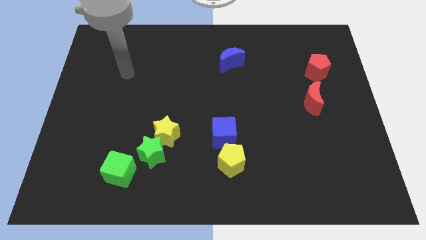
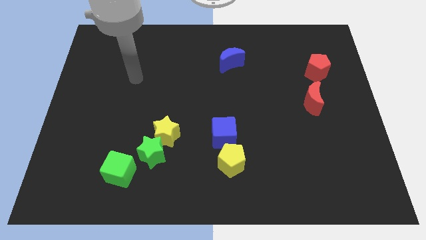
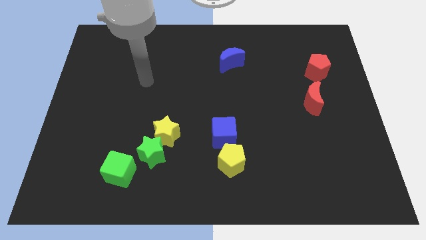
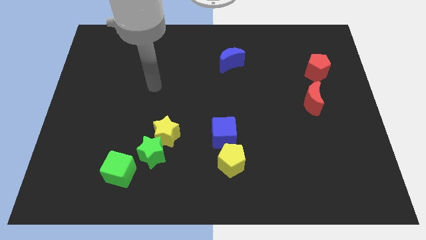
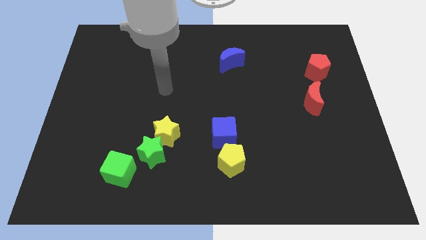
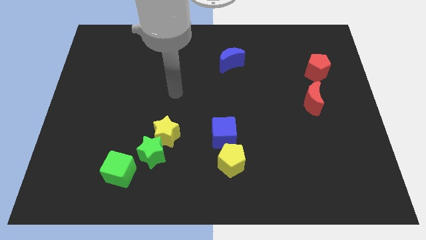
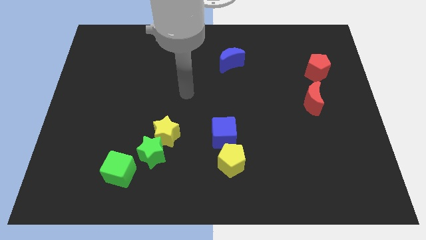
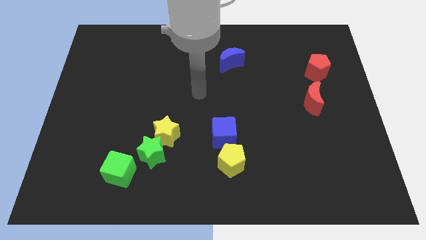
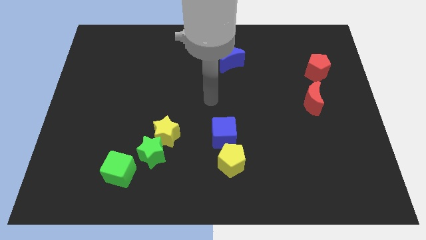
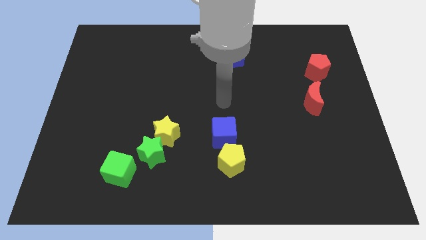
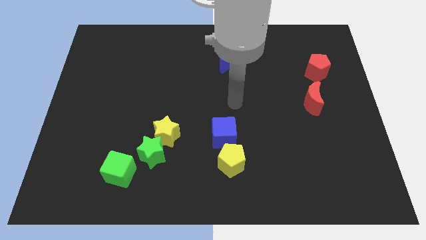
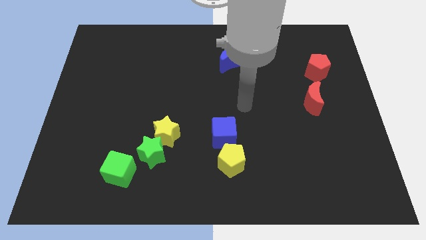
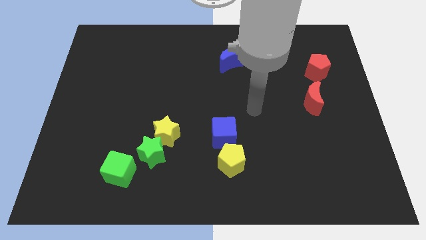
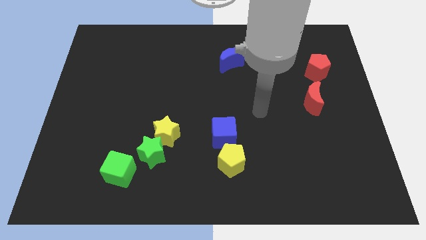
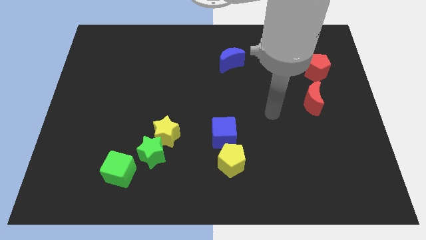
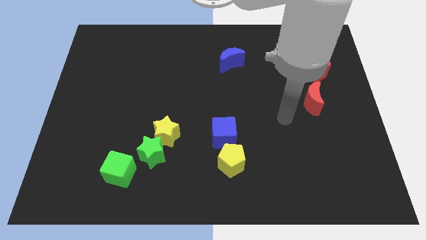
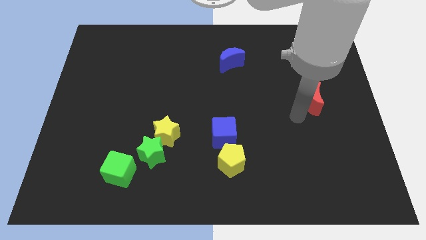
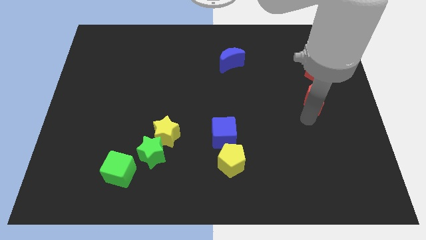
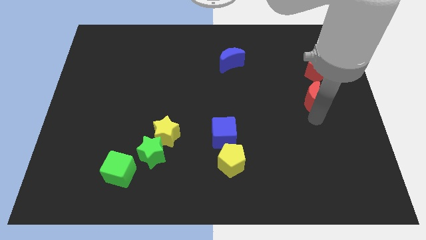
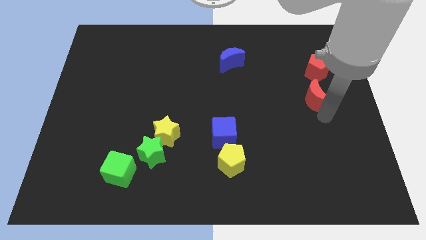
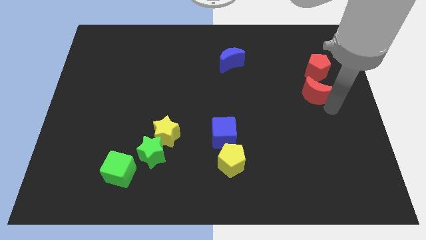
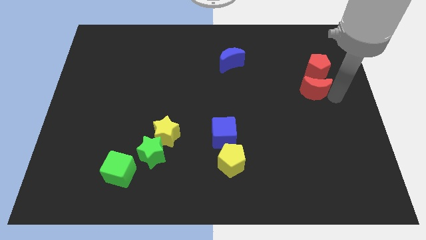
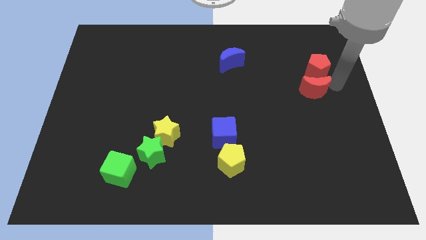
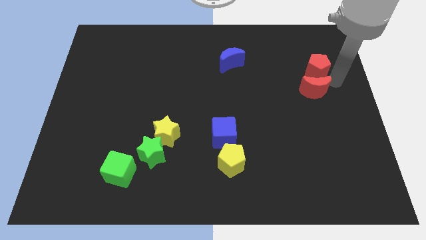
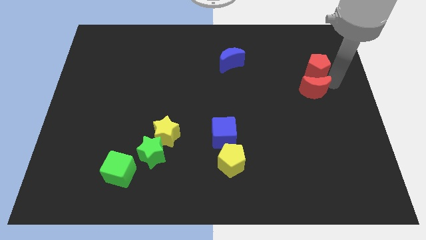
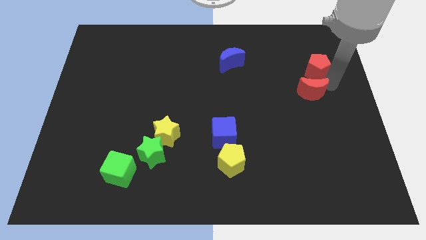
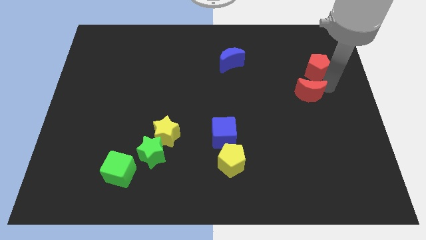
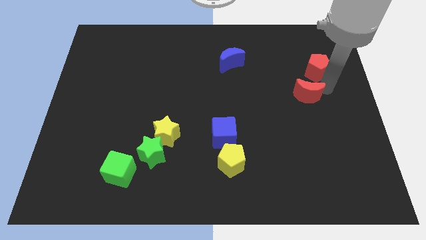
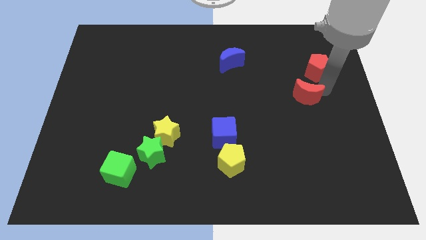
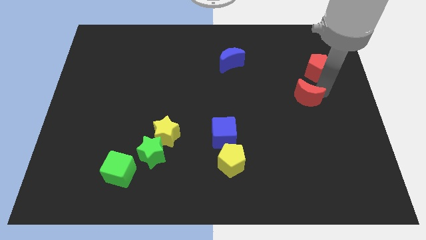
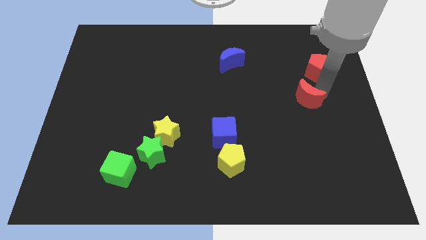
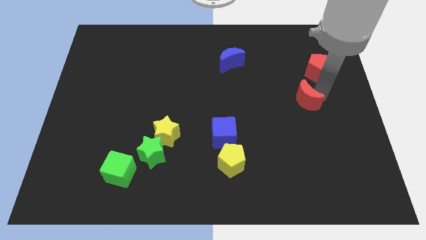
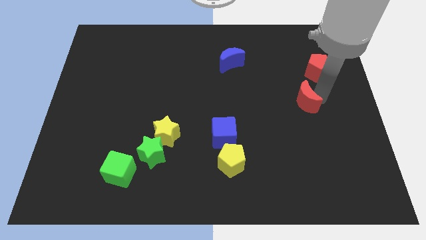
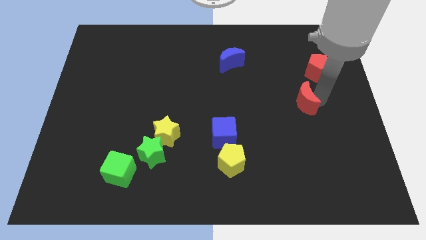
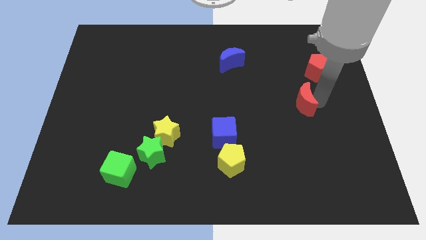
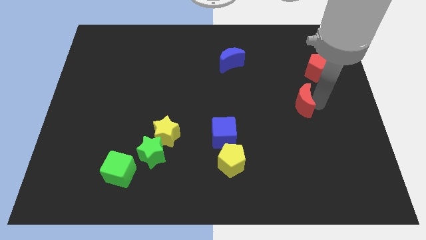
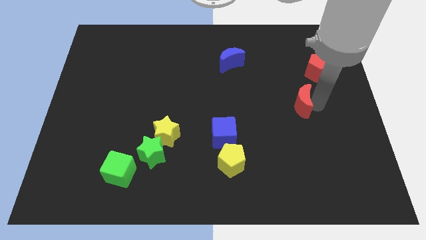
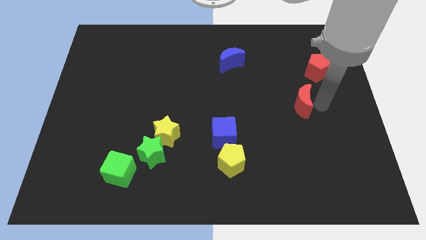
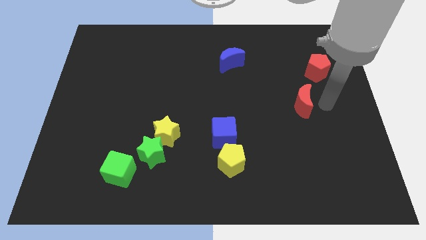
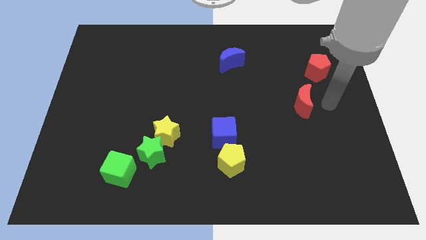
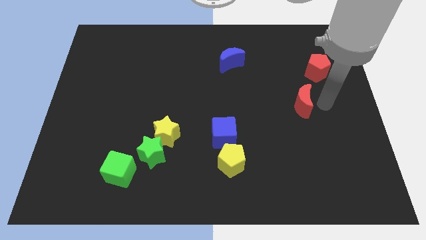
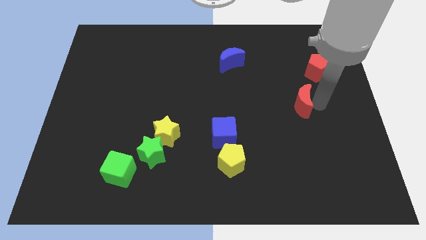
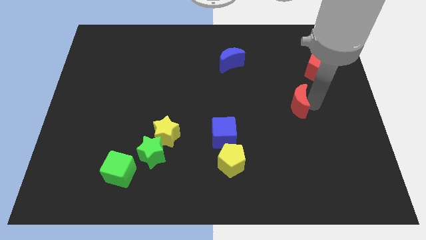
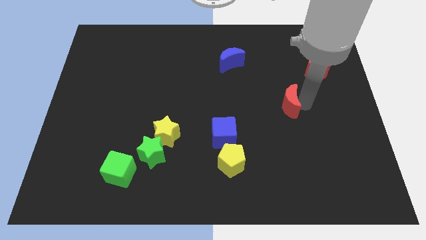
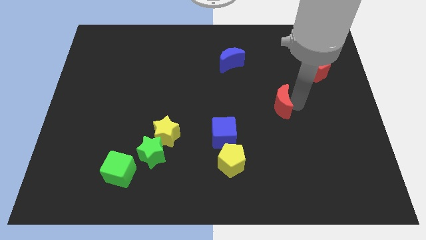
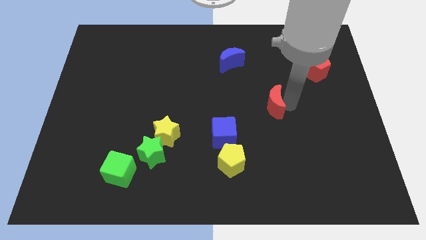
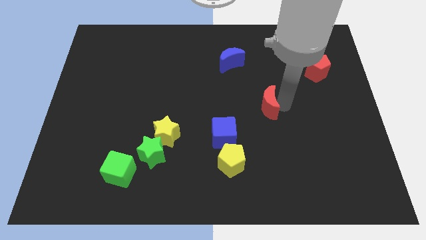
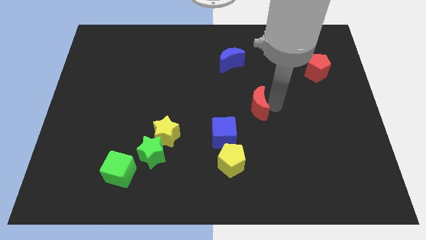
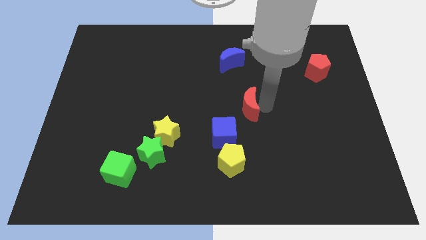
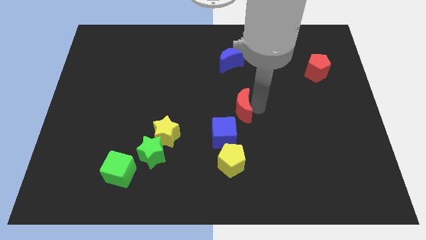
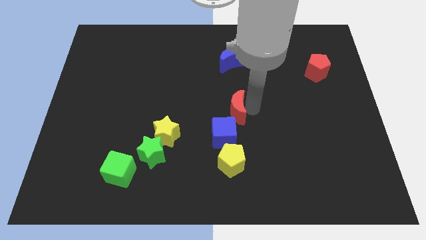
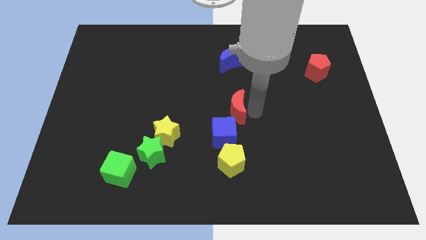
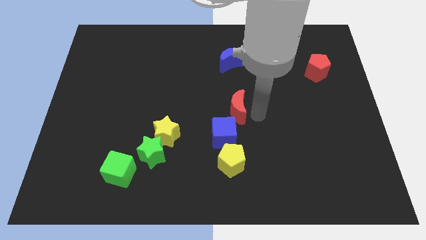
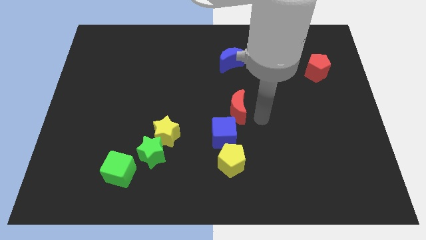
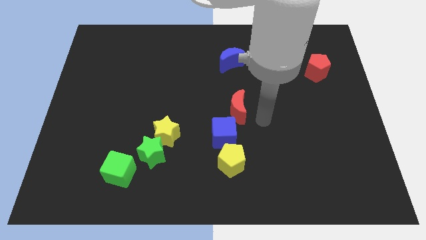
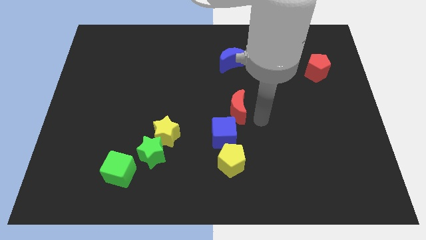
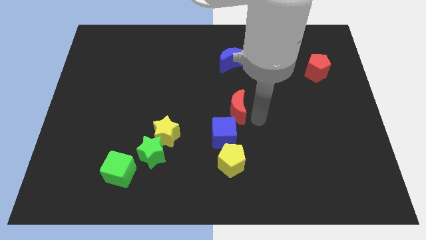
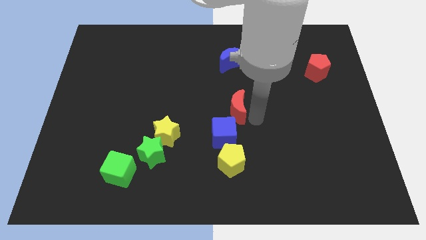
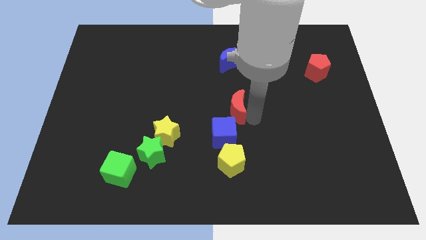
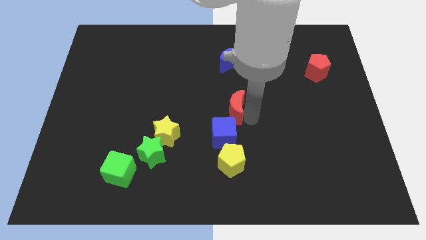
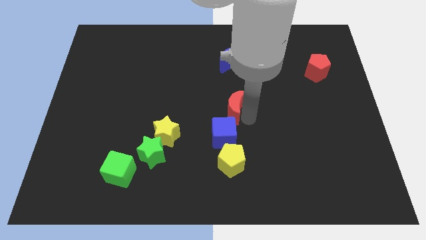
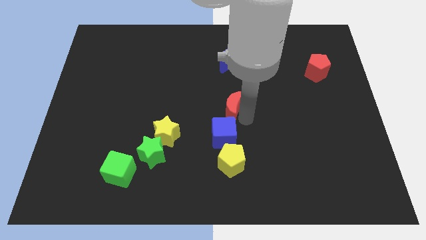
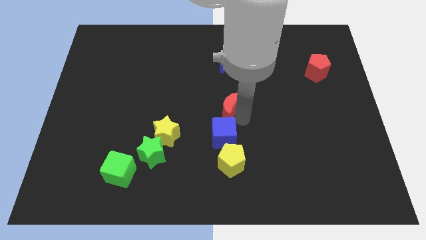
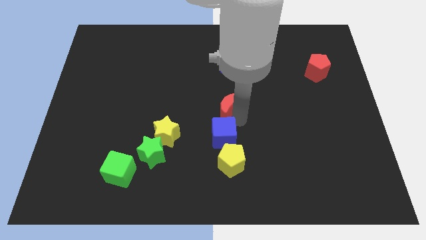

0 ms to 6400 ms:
slide the red moon to the left

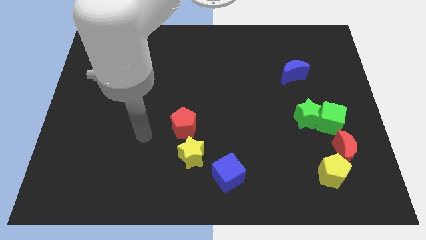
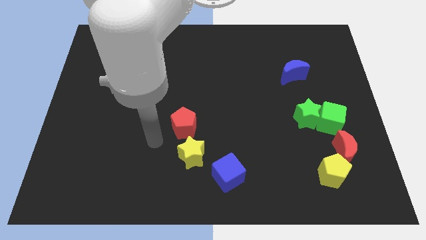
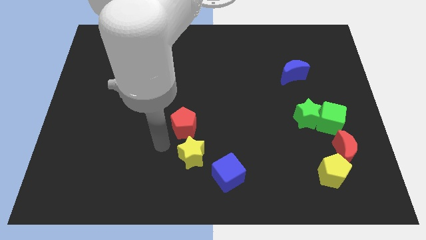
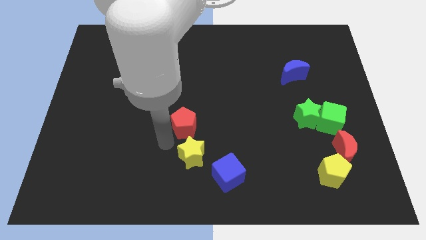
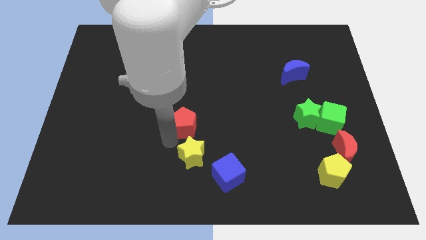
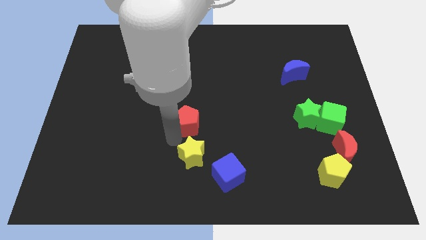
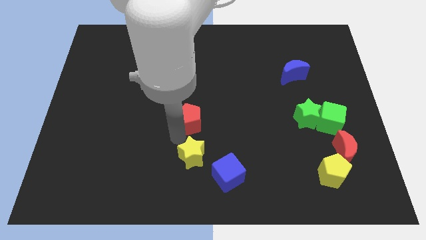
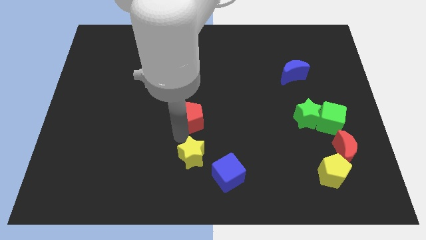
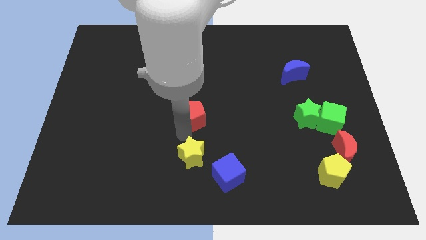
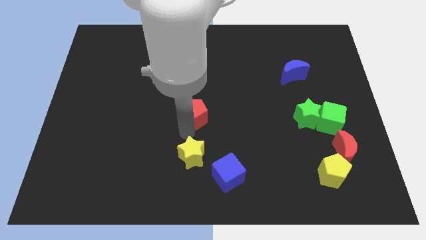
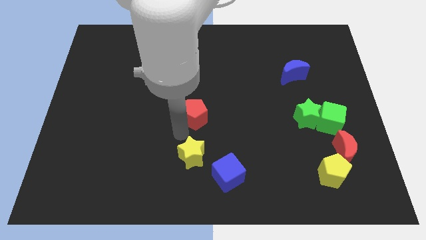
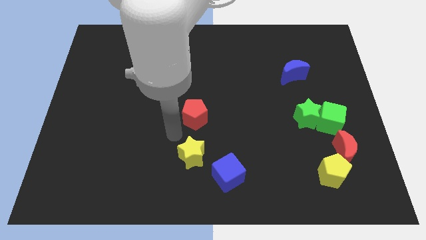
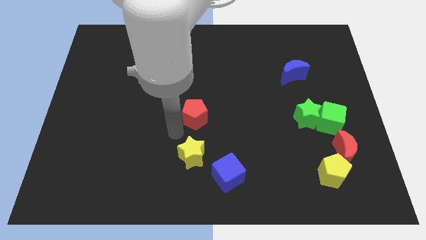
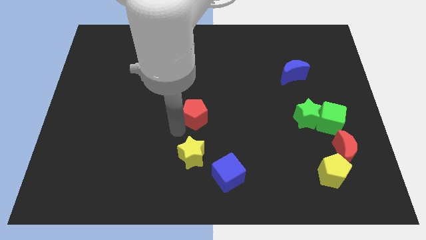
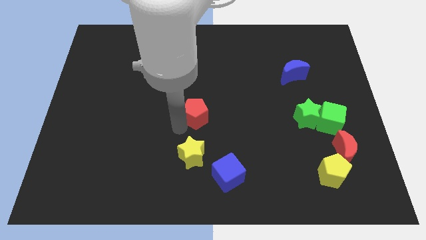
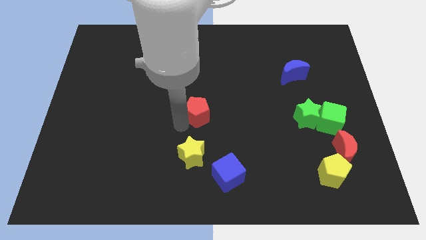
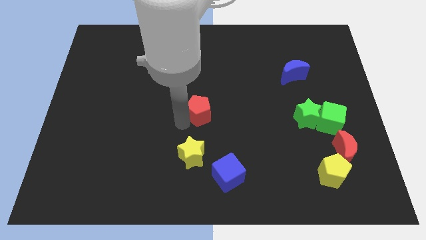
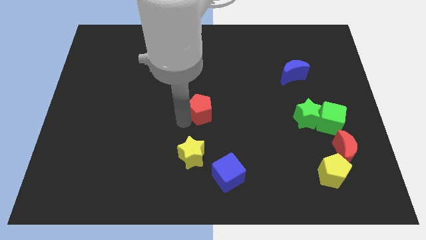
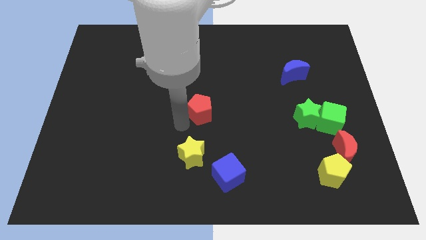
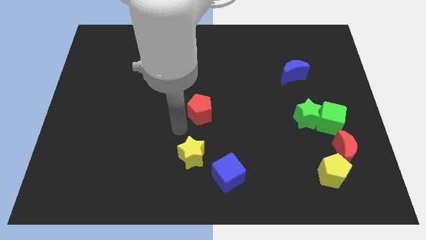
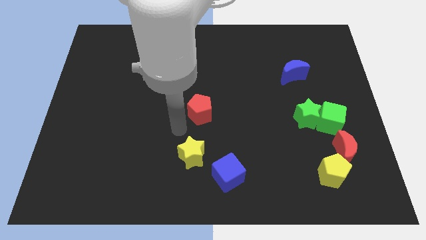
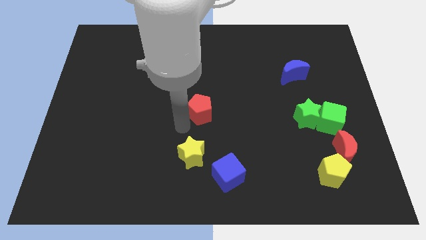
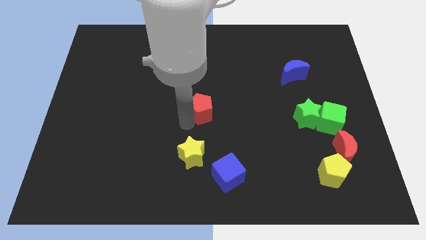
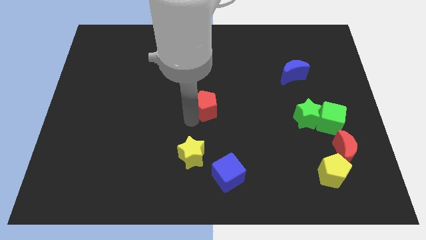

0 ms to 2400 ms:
push the red pentagon upwards and right diagonally slightly
